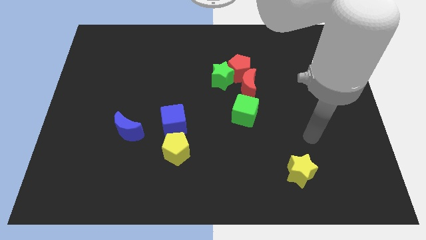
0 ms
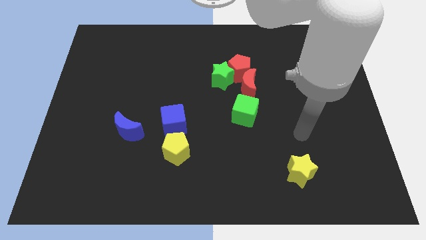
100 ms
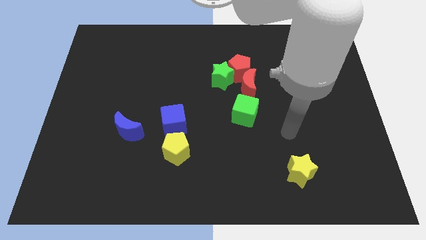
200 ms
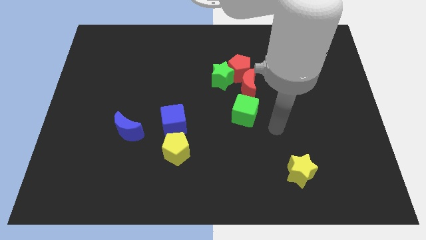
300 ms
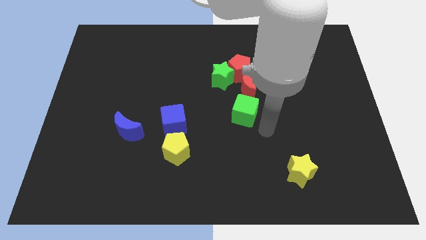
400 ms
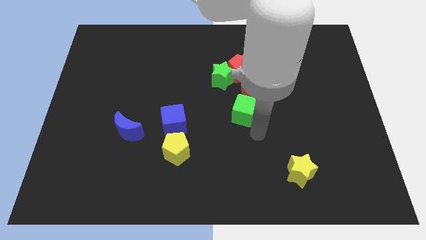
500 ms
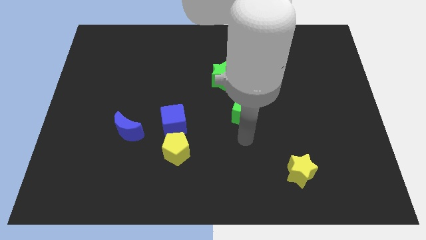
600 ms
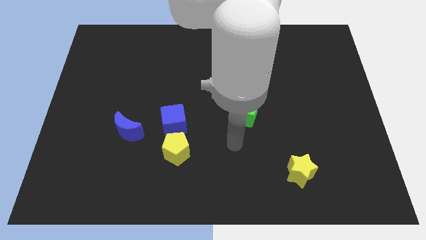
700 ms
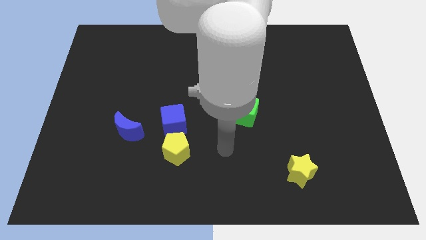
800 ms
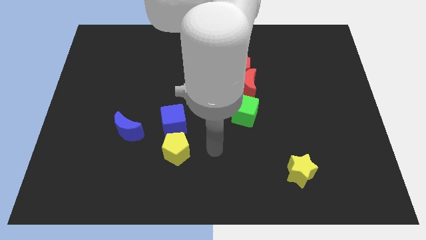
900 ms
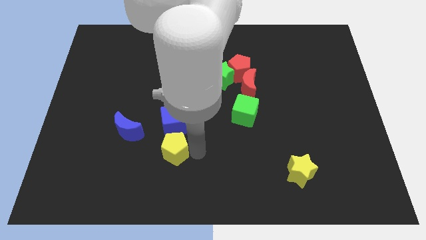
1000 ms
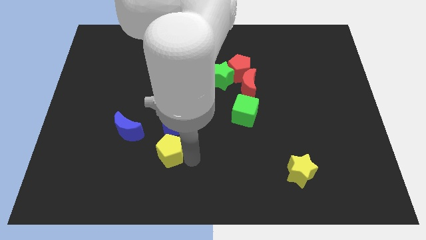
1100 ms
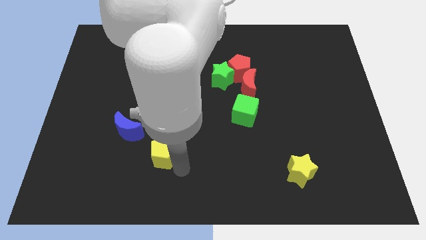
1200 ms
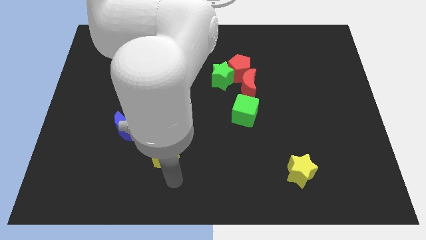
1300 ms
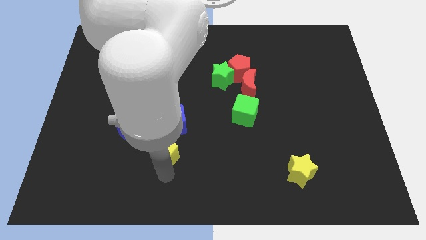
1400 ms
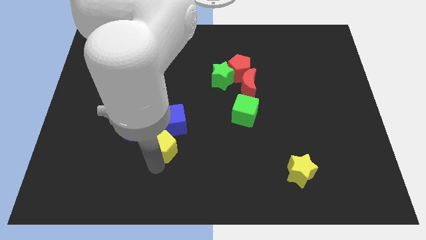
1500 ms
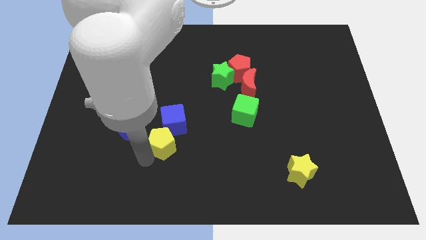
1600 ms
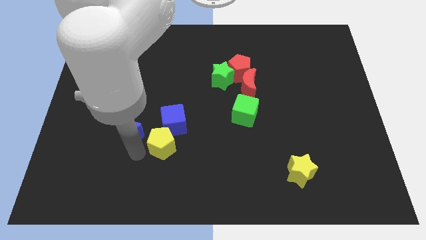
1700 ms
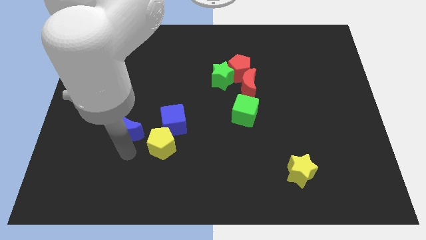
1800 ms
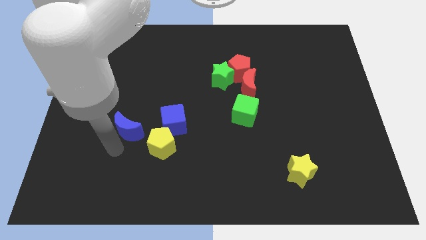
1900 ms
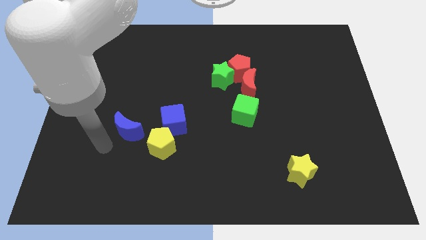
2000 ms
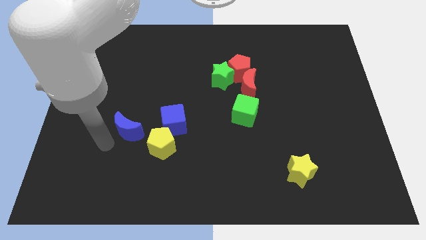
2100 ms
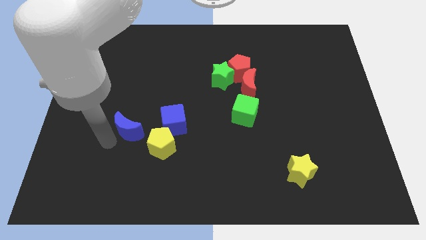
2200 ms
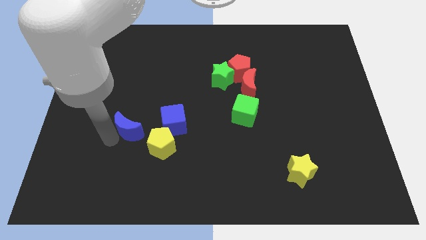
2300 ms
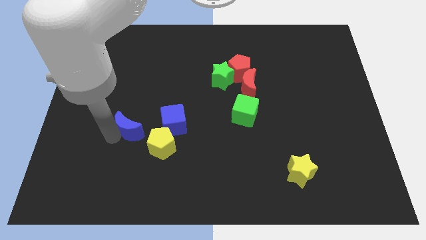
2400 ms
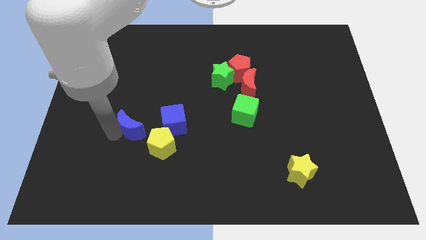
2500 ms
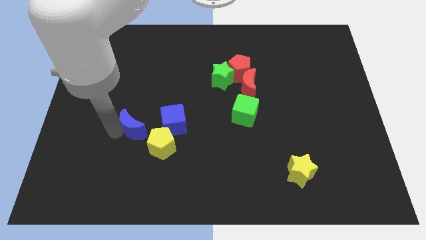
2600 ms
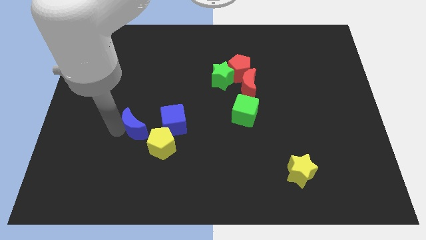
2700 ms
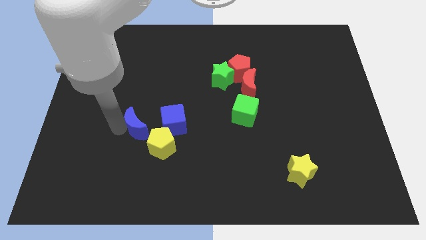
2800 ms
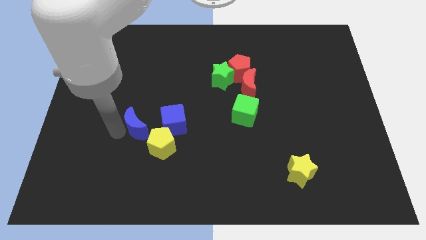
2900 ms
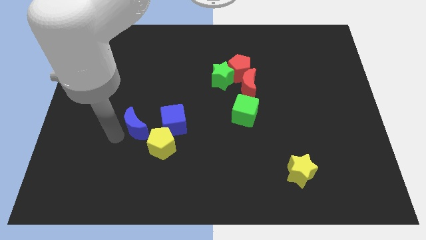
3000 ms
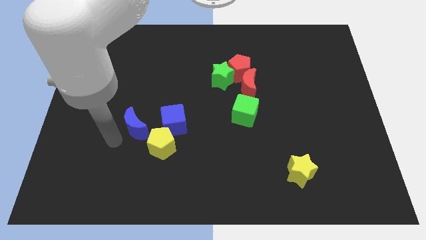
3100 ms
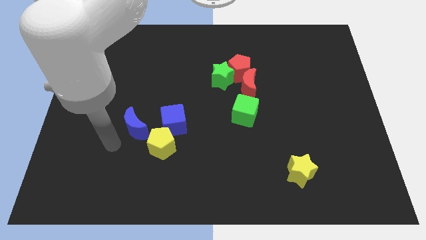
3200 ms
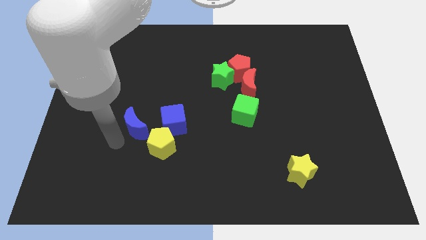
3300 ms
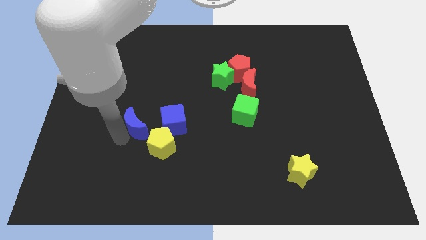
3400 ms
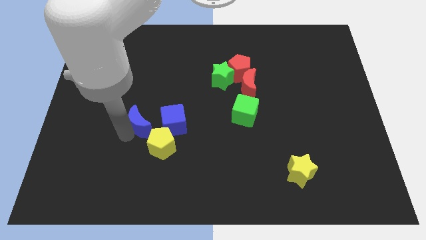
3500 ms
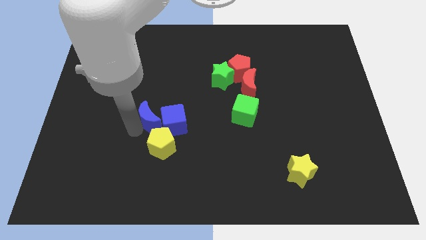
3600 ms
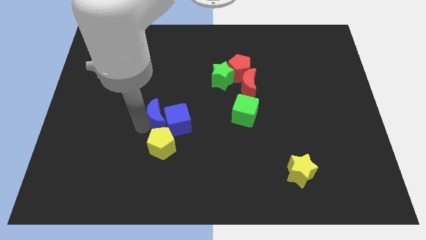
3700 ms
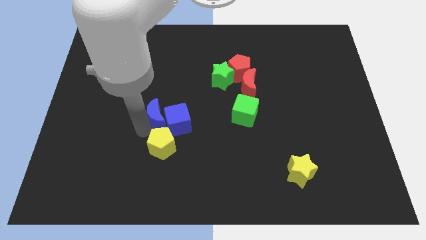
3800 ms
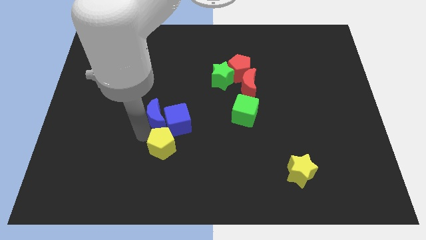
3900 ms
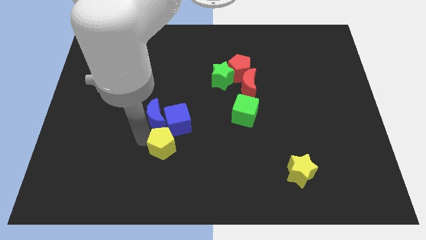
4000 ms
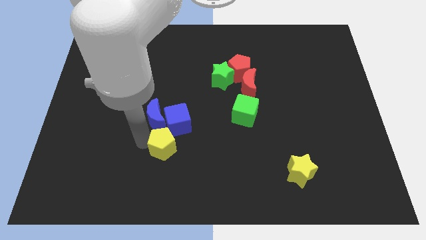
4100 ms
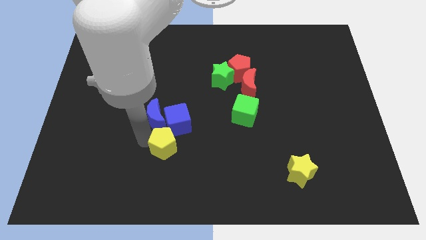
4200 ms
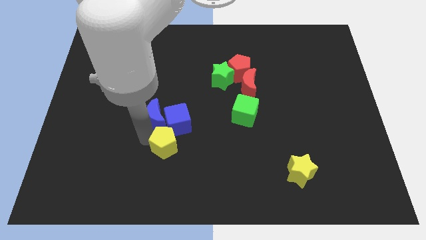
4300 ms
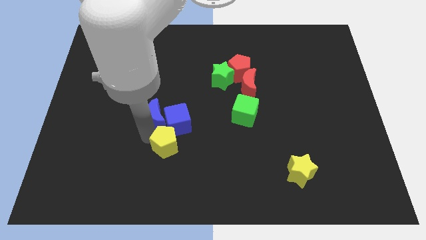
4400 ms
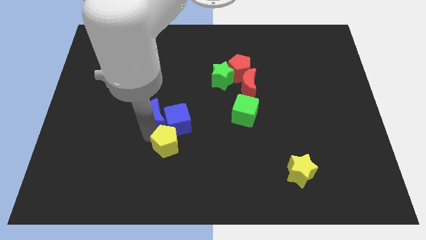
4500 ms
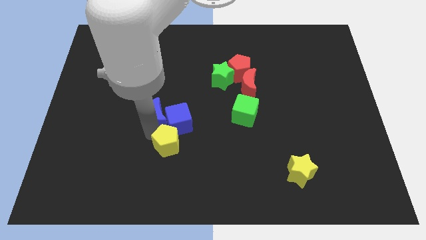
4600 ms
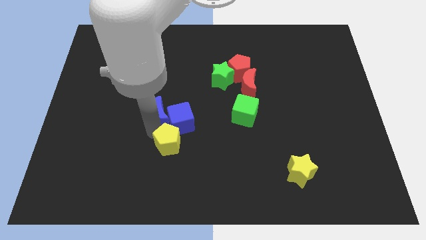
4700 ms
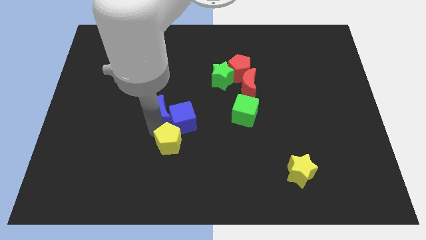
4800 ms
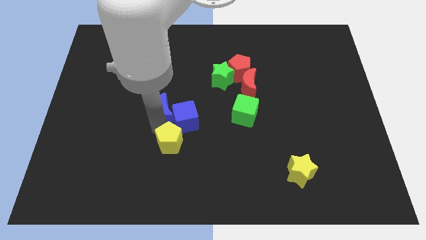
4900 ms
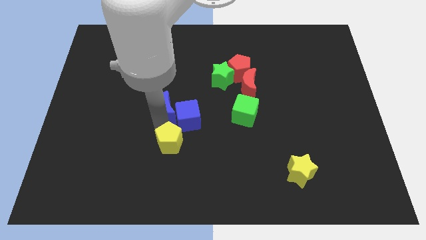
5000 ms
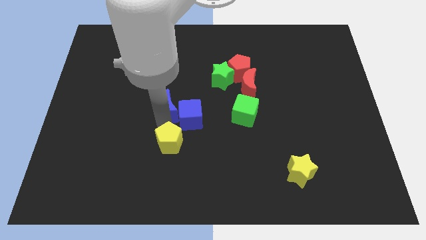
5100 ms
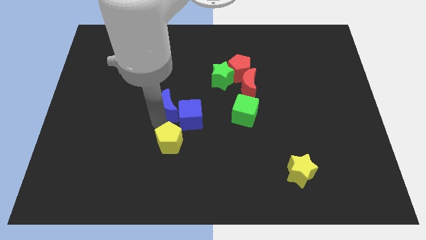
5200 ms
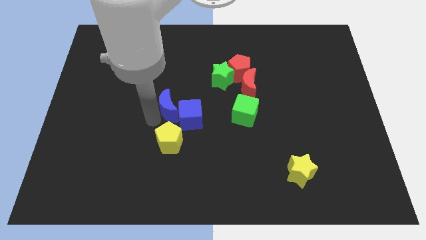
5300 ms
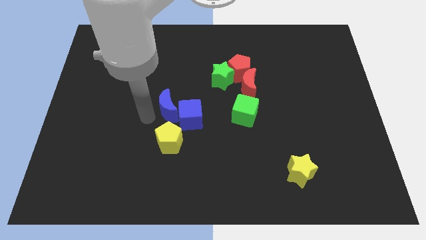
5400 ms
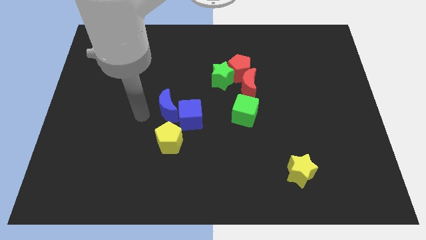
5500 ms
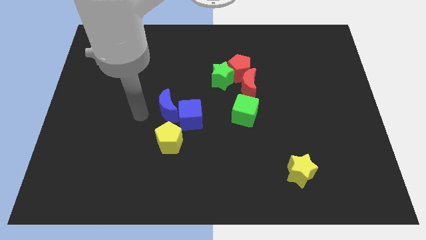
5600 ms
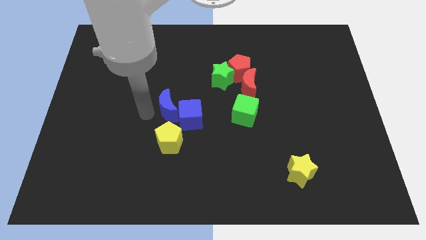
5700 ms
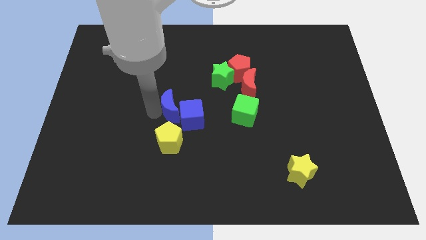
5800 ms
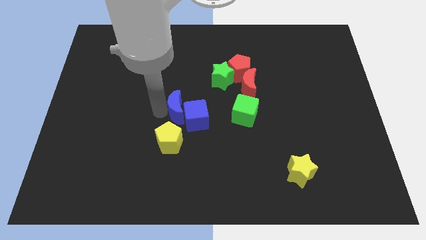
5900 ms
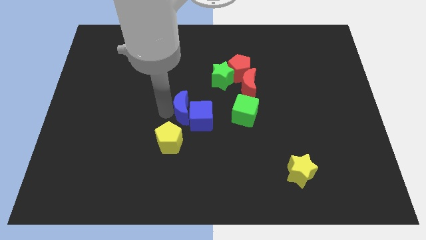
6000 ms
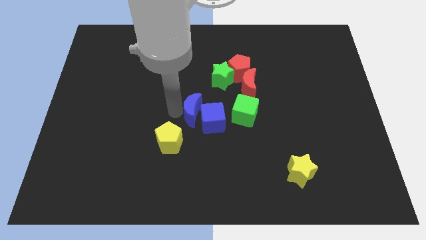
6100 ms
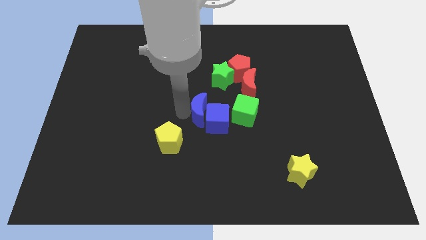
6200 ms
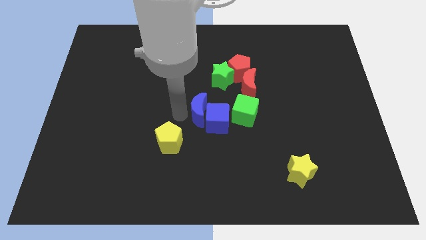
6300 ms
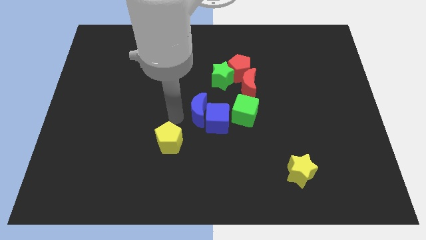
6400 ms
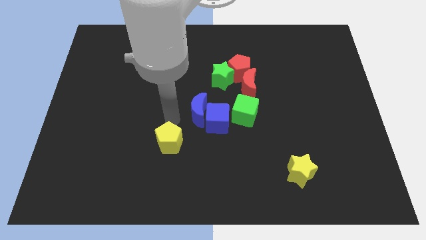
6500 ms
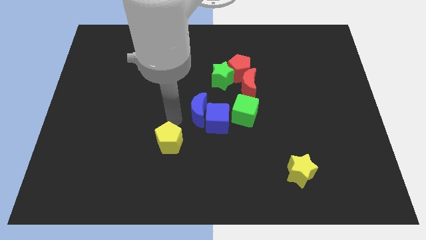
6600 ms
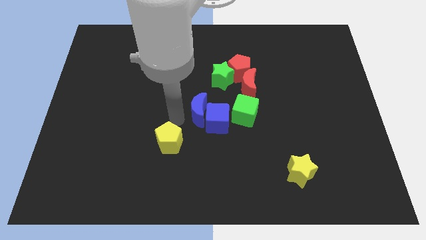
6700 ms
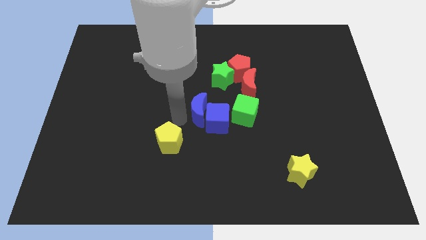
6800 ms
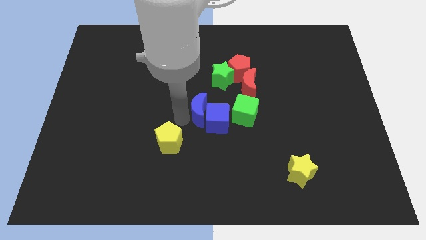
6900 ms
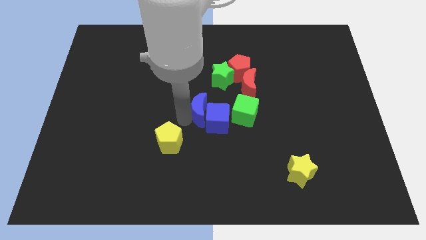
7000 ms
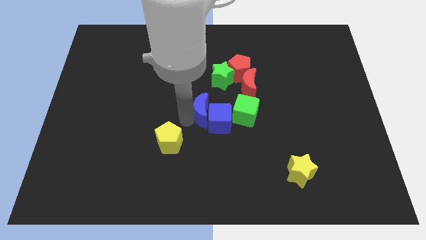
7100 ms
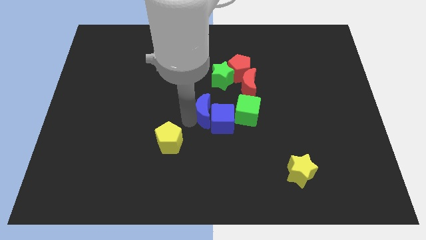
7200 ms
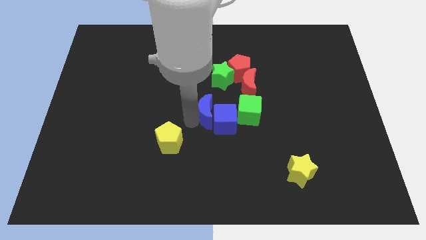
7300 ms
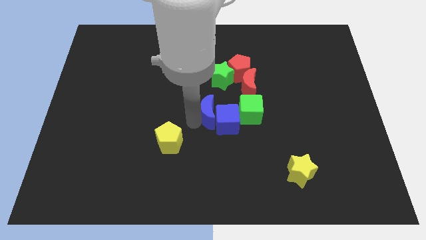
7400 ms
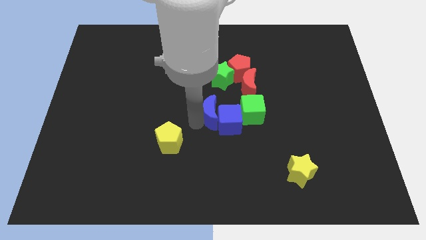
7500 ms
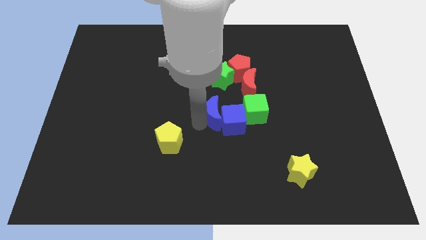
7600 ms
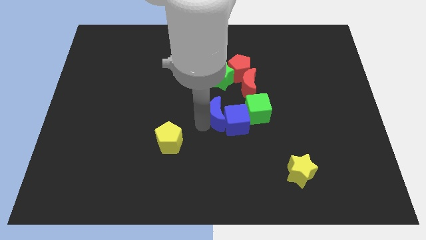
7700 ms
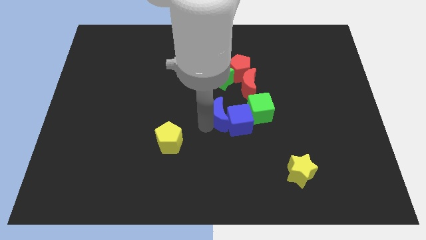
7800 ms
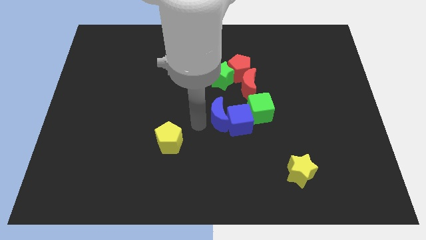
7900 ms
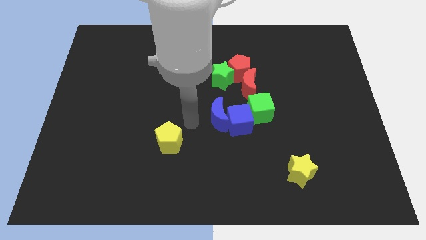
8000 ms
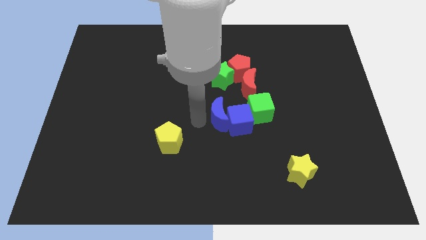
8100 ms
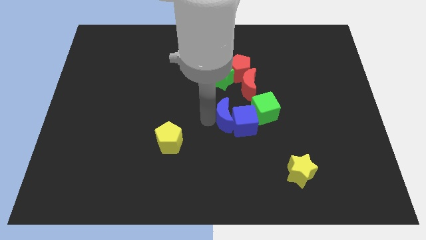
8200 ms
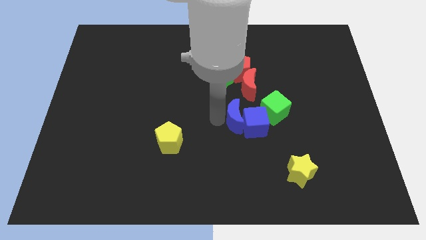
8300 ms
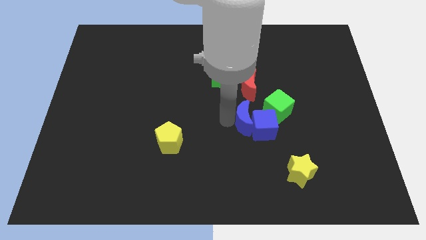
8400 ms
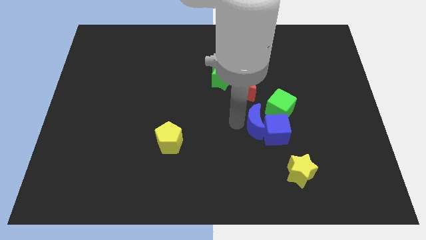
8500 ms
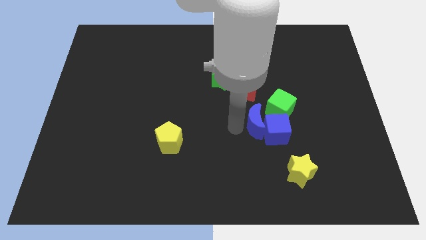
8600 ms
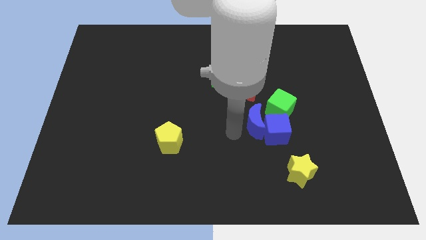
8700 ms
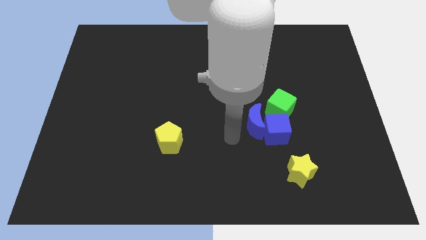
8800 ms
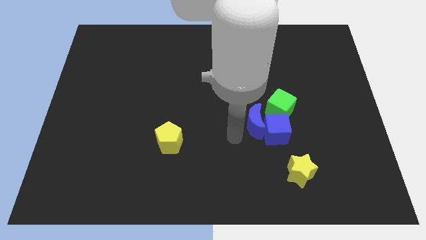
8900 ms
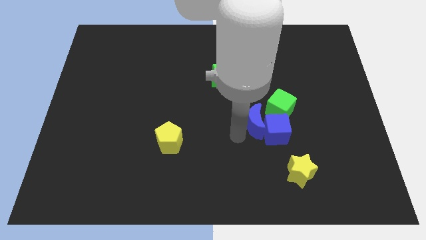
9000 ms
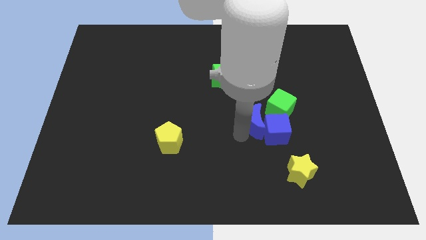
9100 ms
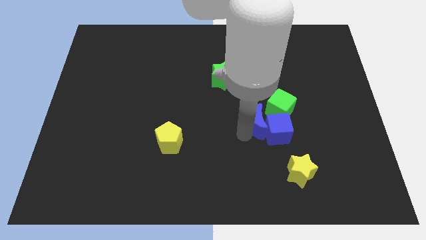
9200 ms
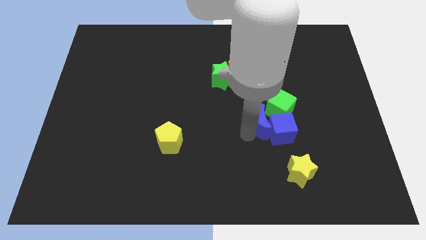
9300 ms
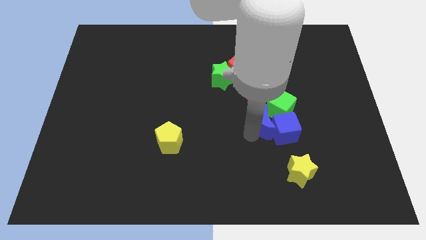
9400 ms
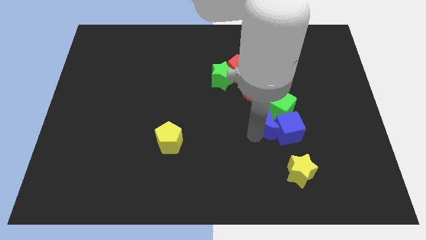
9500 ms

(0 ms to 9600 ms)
slide the blue moon next to the green cube
